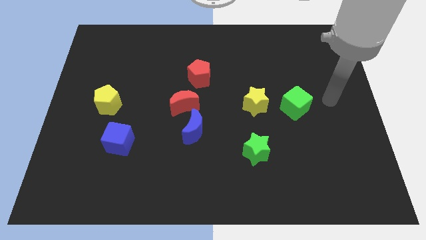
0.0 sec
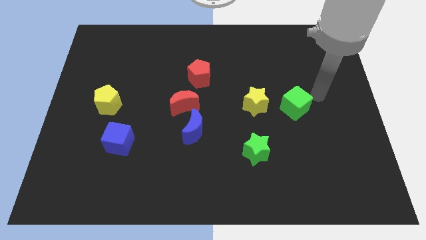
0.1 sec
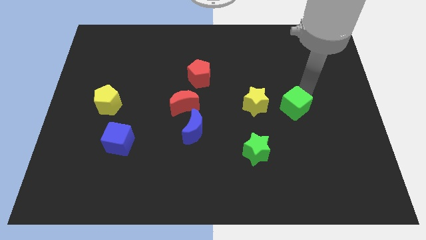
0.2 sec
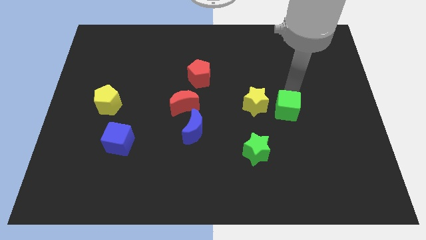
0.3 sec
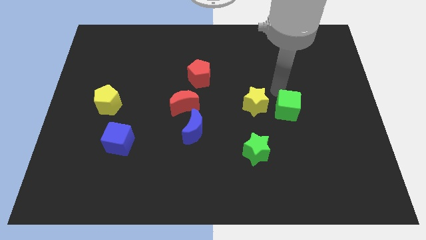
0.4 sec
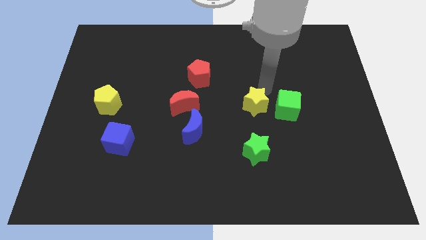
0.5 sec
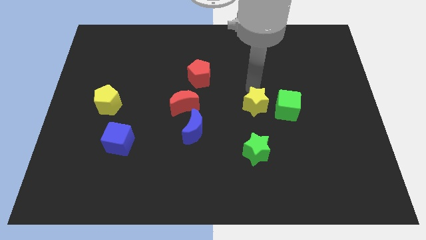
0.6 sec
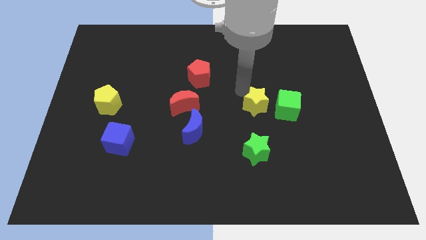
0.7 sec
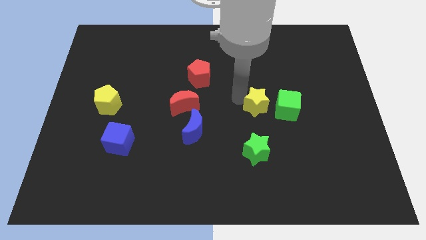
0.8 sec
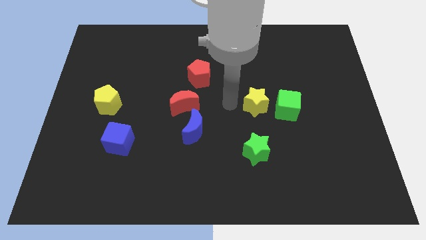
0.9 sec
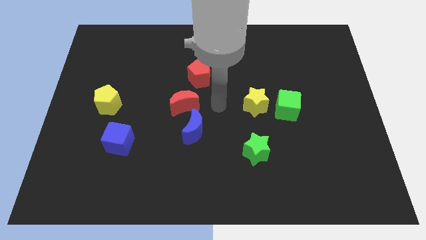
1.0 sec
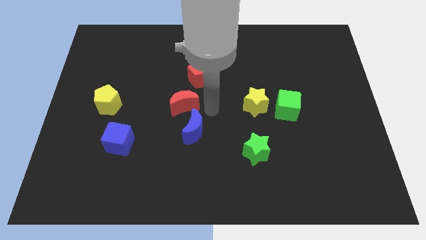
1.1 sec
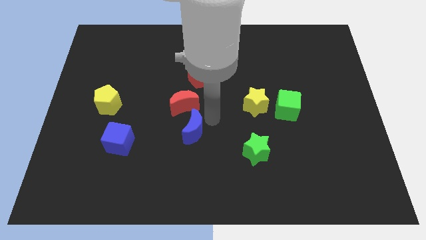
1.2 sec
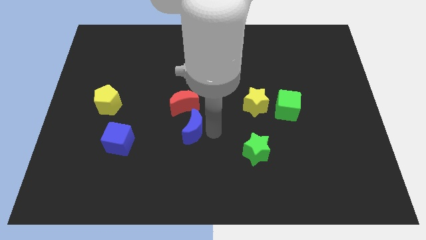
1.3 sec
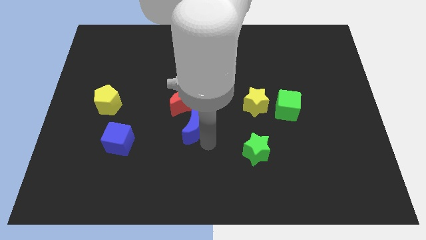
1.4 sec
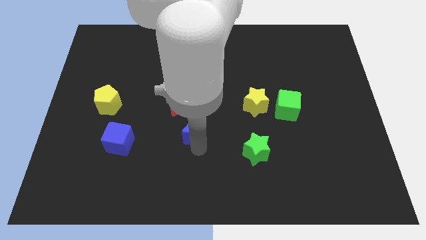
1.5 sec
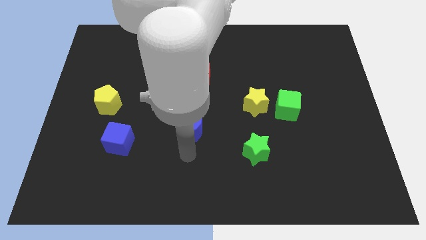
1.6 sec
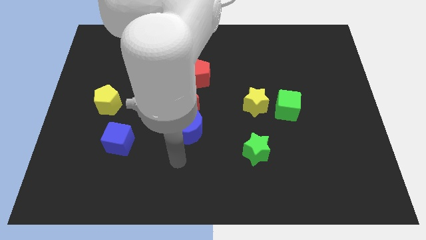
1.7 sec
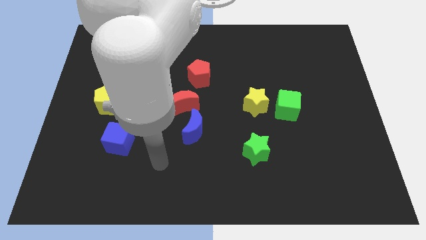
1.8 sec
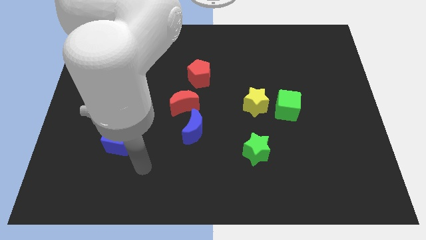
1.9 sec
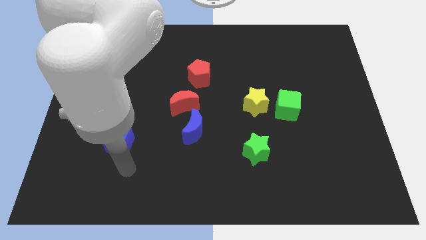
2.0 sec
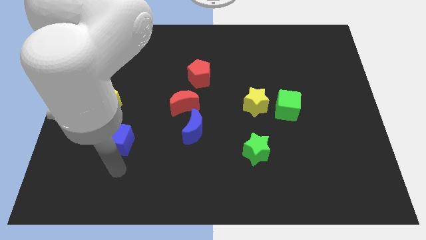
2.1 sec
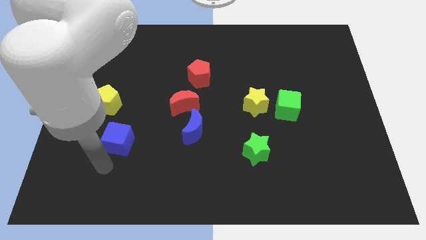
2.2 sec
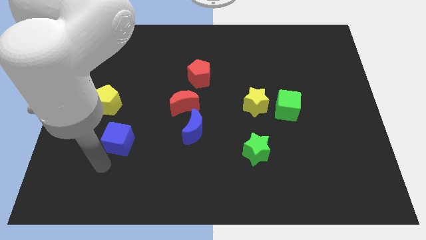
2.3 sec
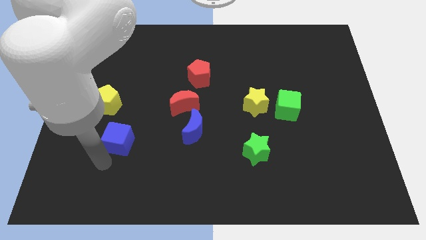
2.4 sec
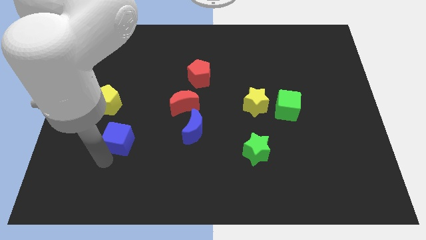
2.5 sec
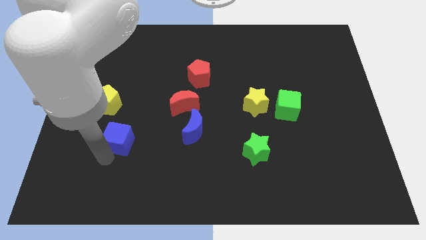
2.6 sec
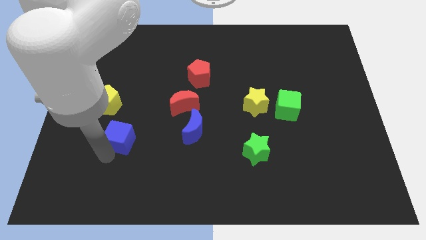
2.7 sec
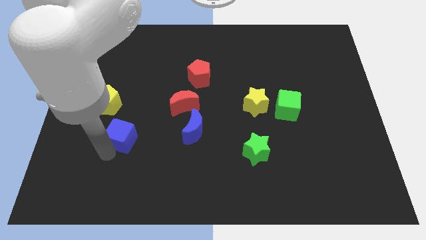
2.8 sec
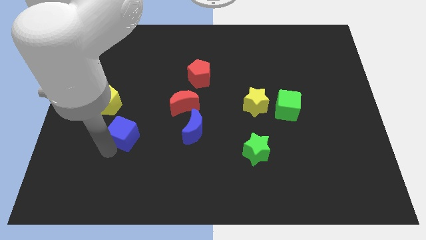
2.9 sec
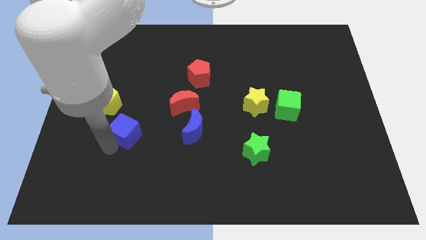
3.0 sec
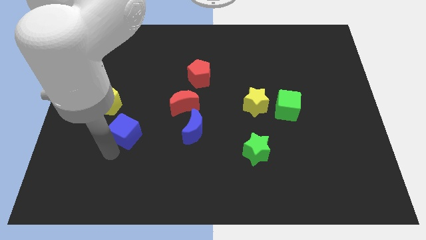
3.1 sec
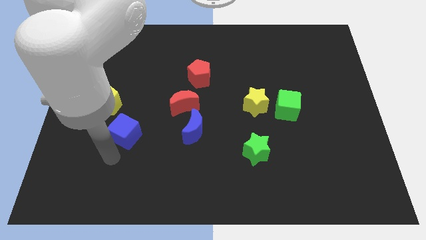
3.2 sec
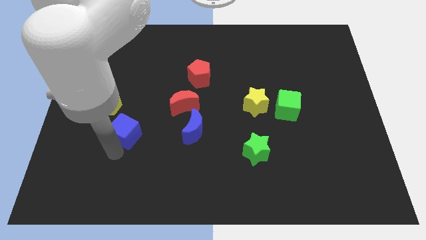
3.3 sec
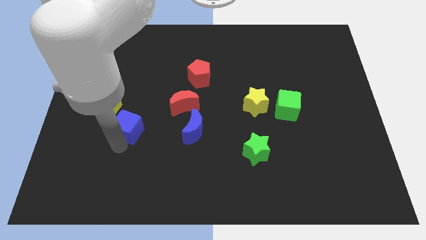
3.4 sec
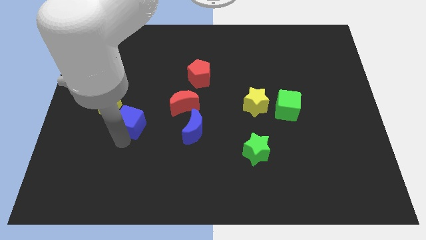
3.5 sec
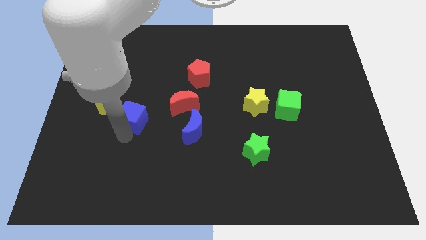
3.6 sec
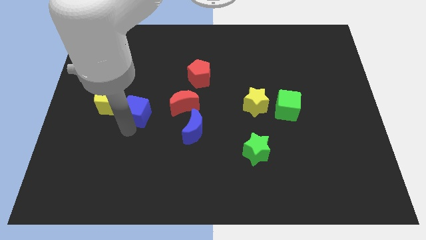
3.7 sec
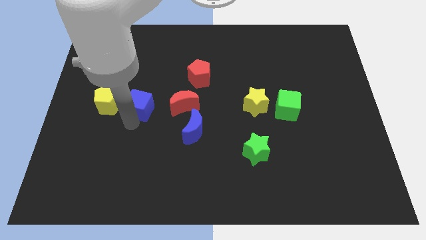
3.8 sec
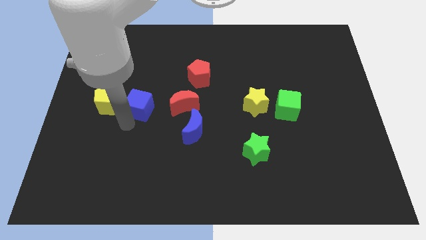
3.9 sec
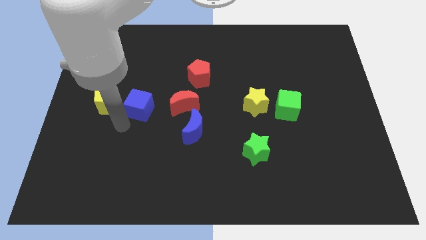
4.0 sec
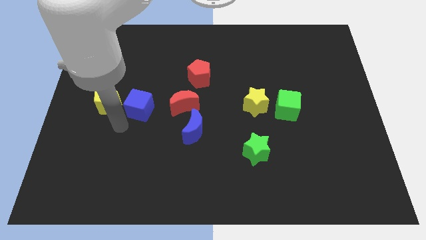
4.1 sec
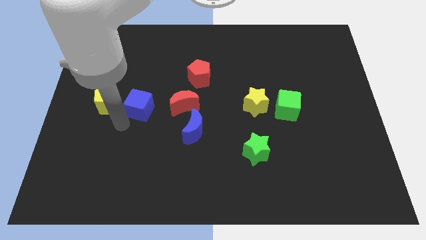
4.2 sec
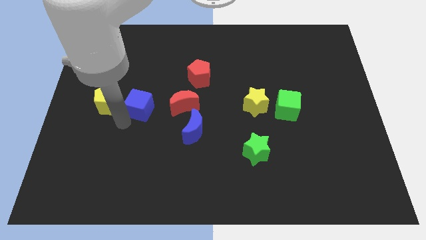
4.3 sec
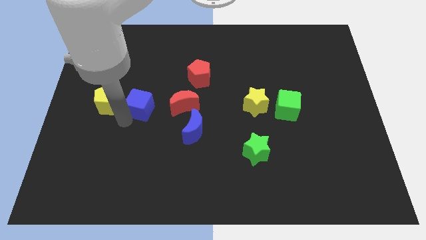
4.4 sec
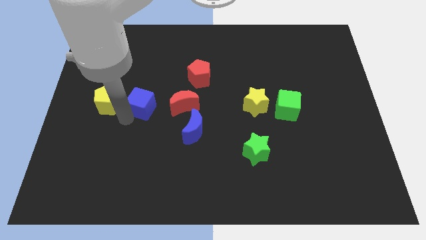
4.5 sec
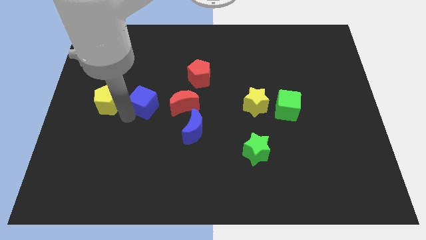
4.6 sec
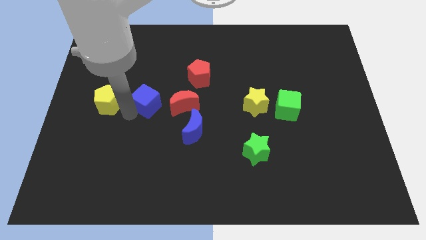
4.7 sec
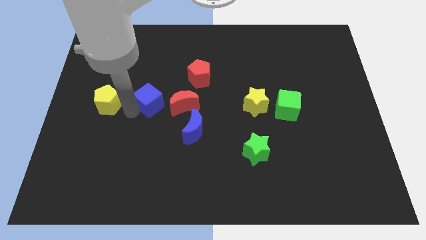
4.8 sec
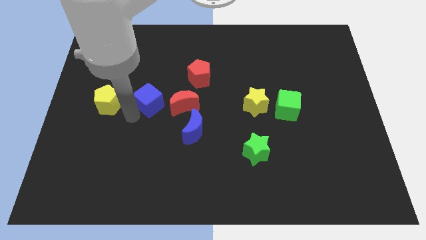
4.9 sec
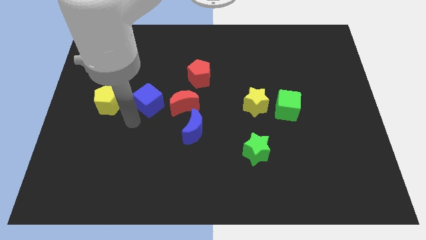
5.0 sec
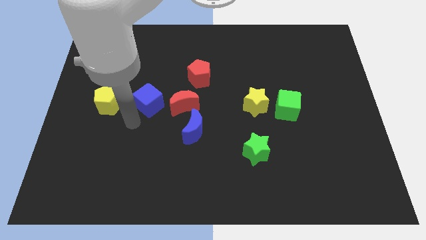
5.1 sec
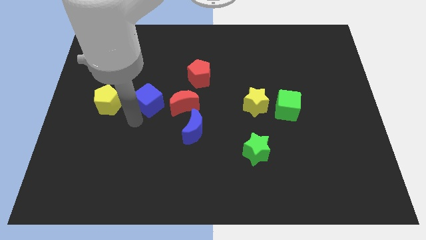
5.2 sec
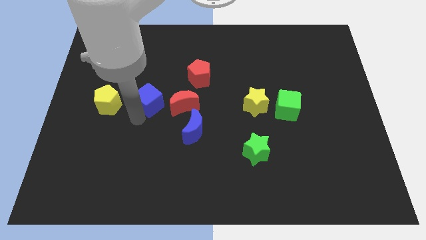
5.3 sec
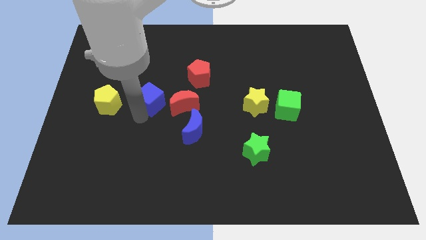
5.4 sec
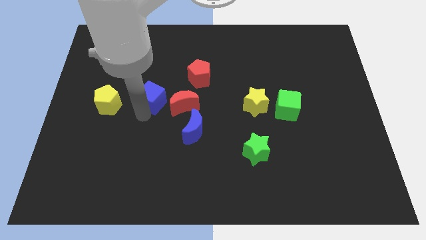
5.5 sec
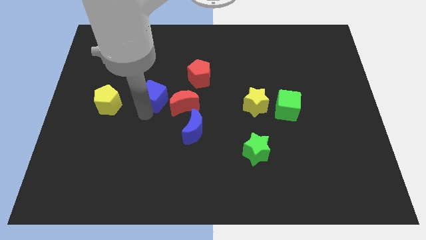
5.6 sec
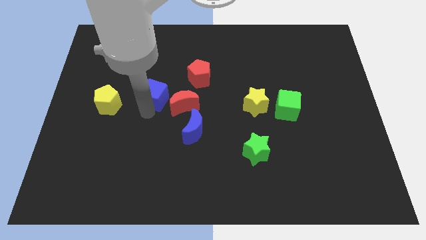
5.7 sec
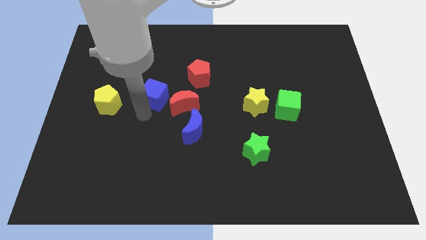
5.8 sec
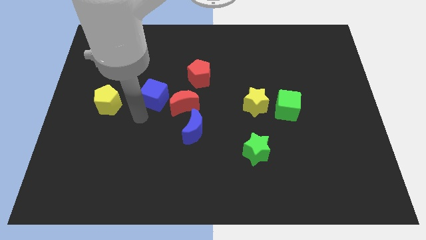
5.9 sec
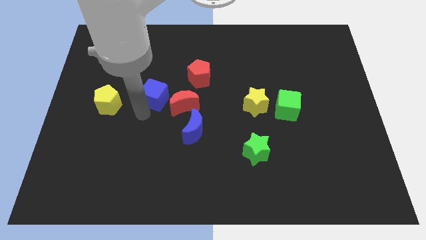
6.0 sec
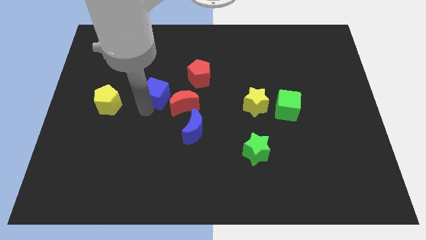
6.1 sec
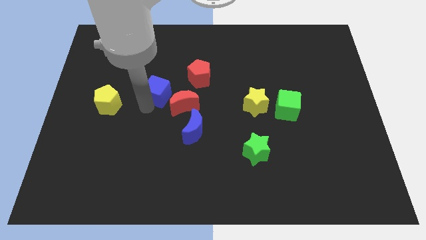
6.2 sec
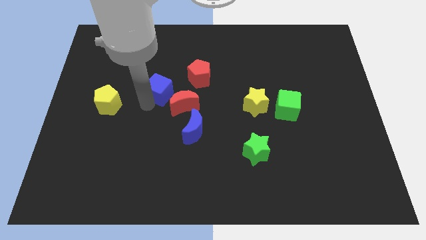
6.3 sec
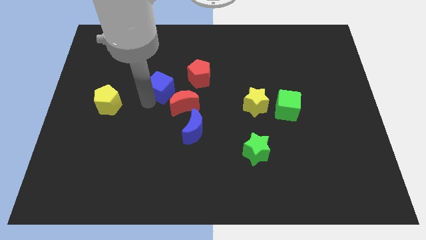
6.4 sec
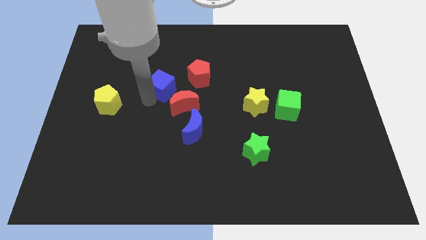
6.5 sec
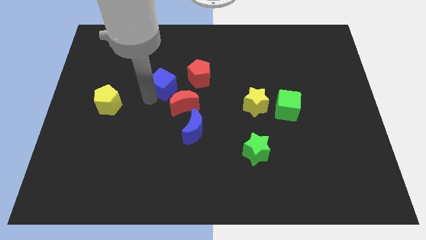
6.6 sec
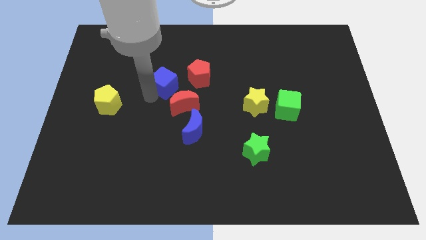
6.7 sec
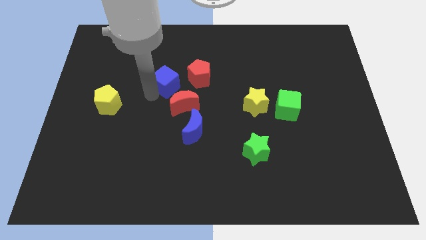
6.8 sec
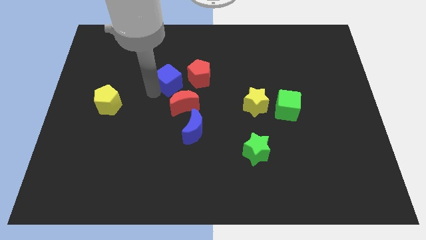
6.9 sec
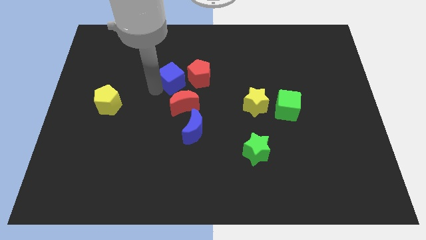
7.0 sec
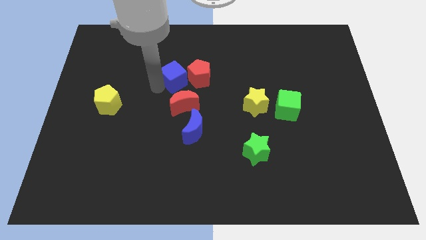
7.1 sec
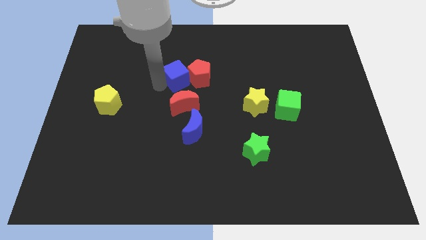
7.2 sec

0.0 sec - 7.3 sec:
slide the blue cube close to the red pentagon
